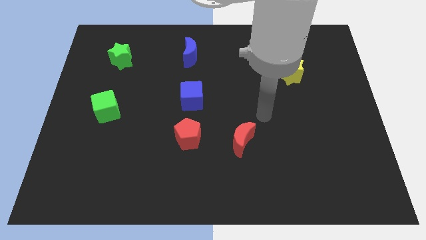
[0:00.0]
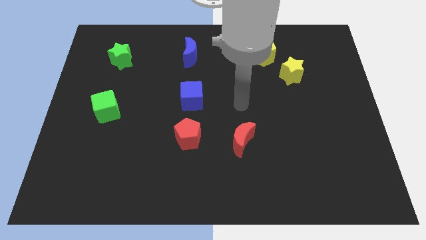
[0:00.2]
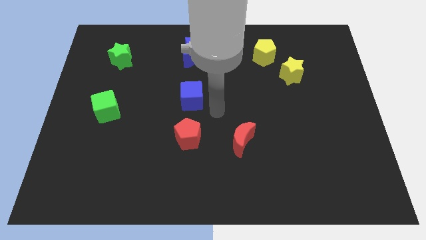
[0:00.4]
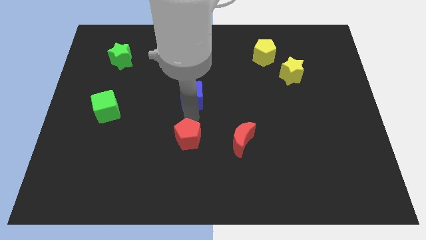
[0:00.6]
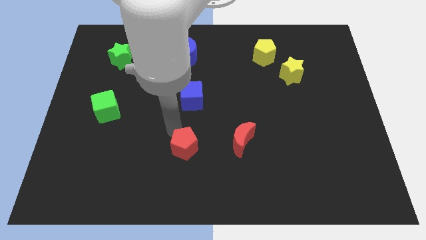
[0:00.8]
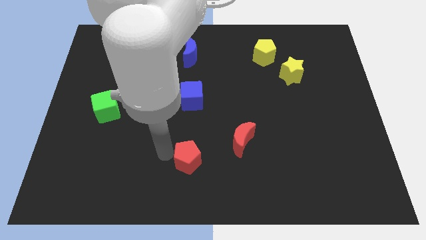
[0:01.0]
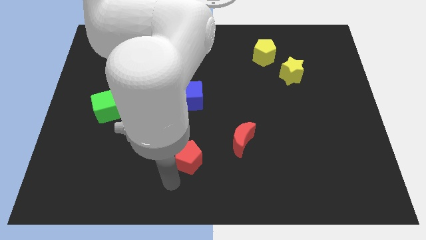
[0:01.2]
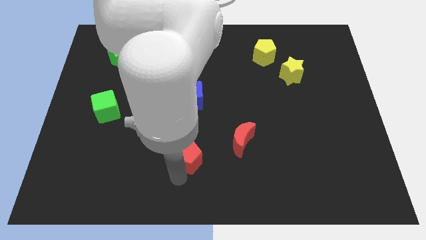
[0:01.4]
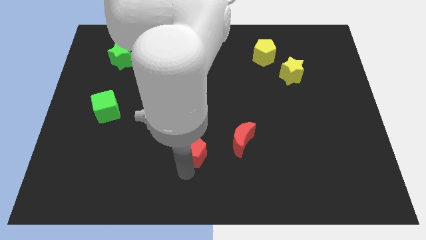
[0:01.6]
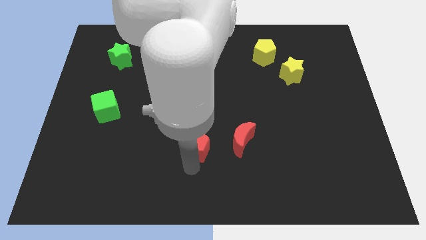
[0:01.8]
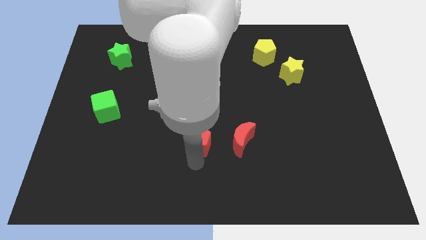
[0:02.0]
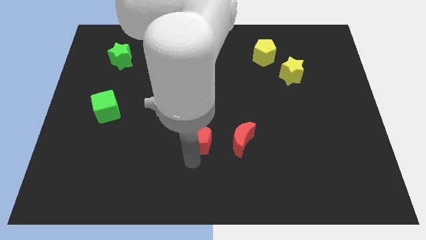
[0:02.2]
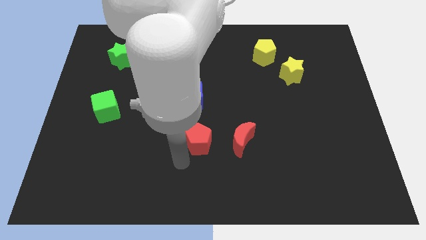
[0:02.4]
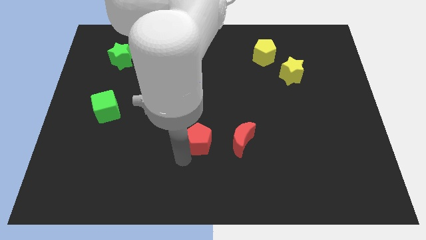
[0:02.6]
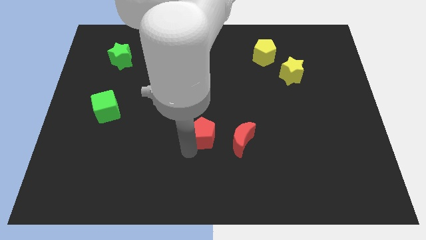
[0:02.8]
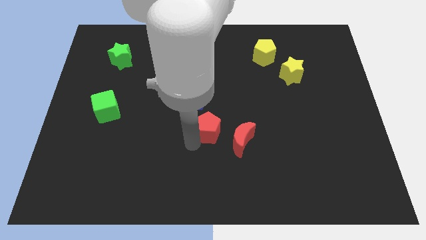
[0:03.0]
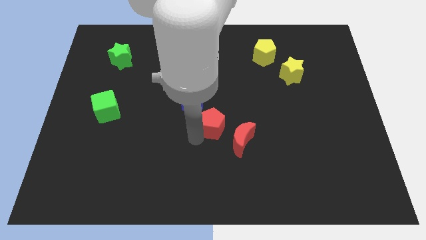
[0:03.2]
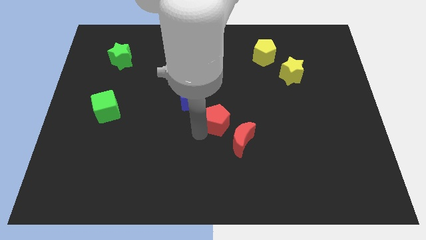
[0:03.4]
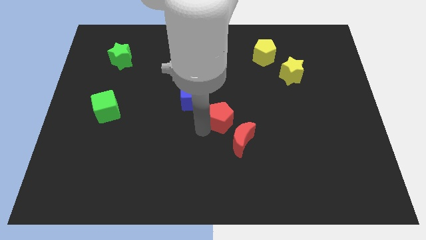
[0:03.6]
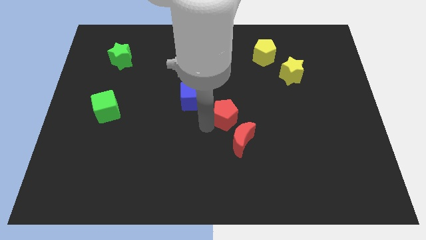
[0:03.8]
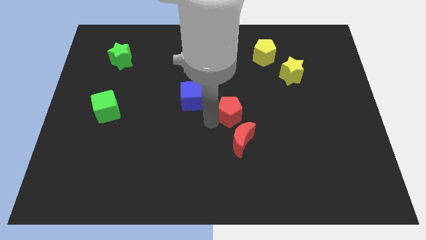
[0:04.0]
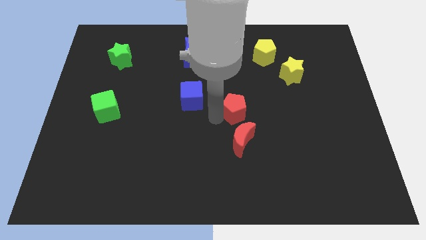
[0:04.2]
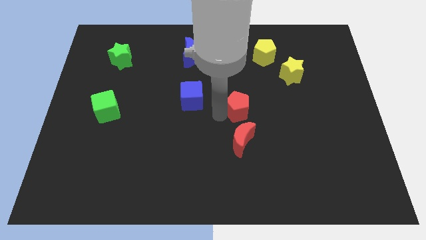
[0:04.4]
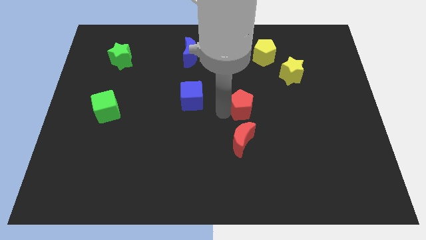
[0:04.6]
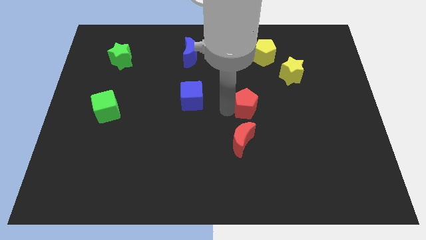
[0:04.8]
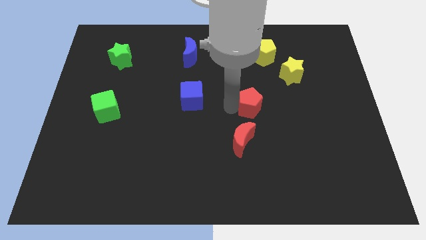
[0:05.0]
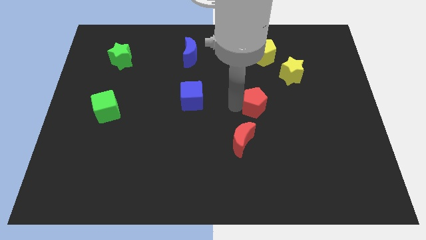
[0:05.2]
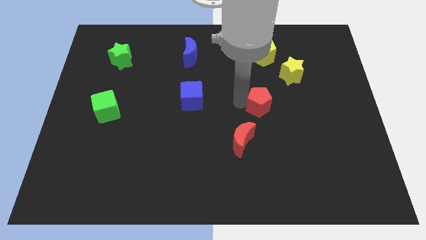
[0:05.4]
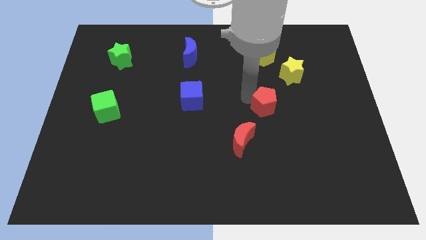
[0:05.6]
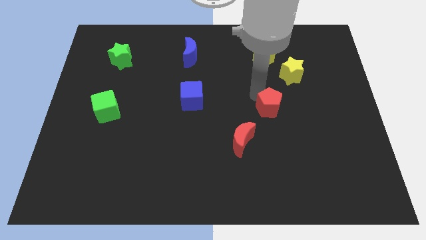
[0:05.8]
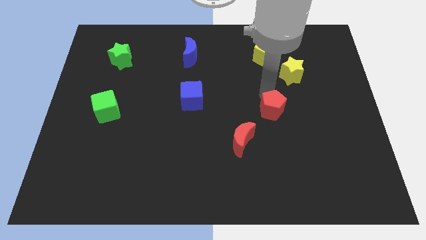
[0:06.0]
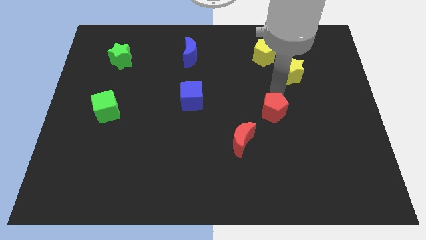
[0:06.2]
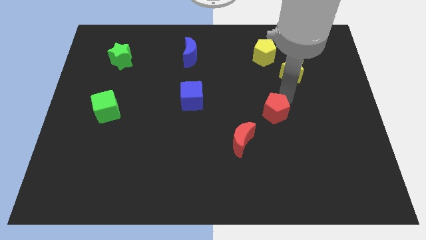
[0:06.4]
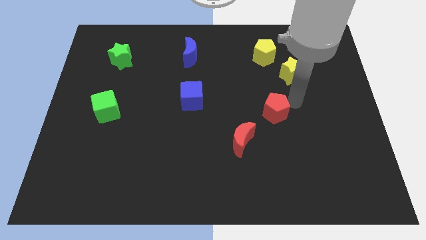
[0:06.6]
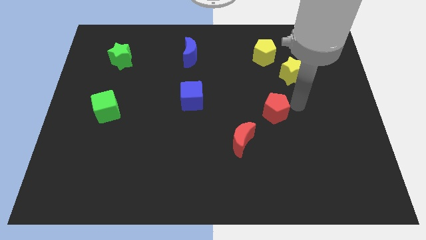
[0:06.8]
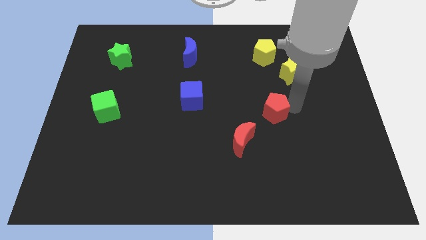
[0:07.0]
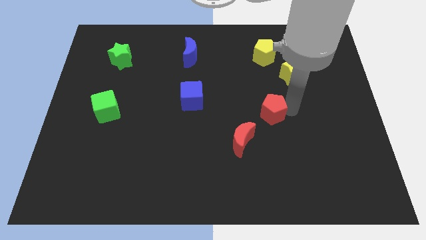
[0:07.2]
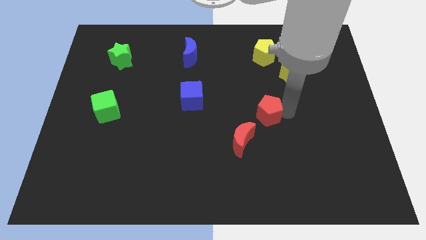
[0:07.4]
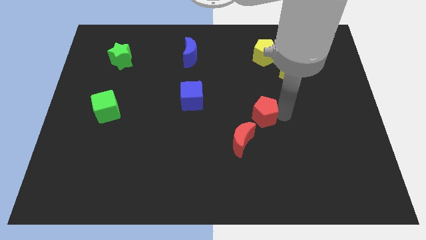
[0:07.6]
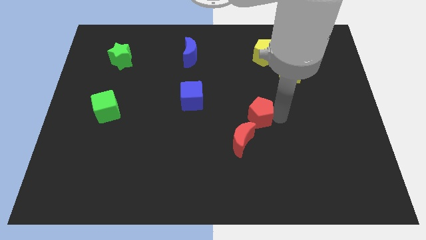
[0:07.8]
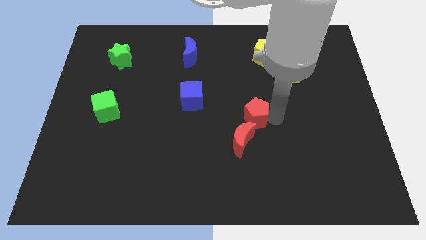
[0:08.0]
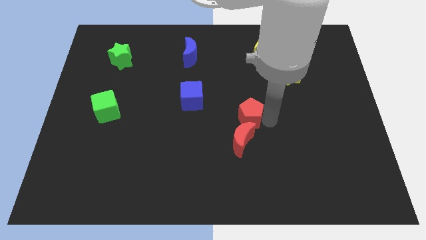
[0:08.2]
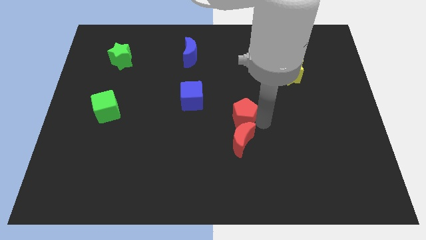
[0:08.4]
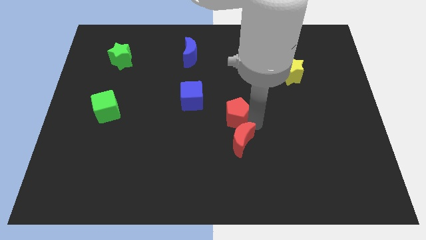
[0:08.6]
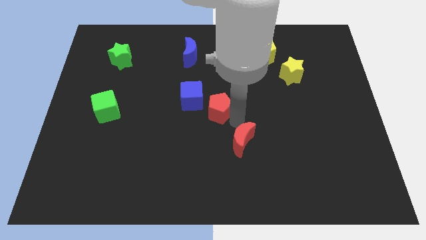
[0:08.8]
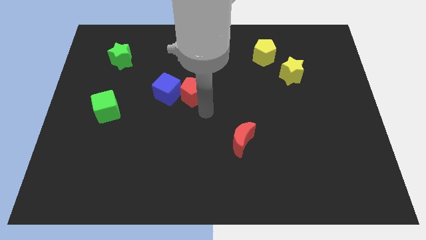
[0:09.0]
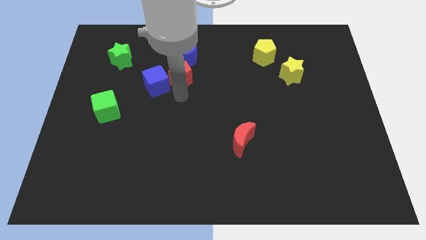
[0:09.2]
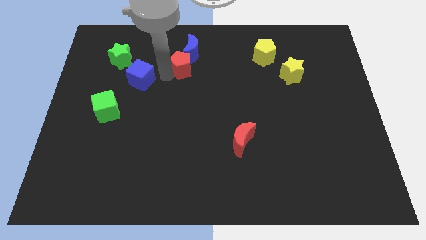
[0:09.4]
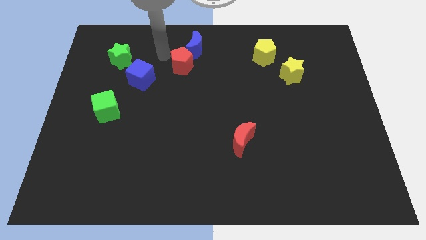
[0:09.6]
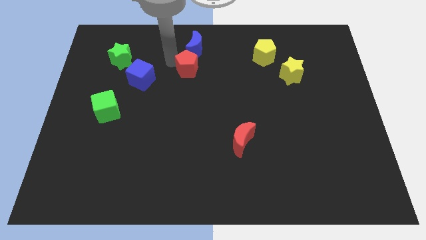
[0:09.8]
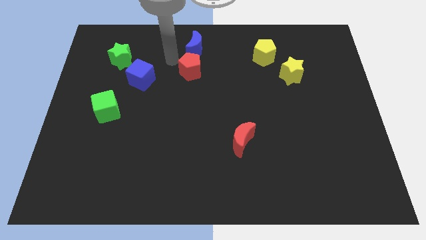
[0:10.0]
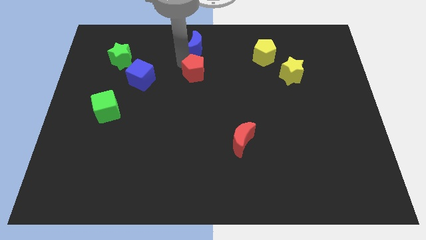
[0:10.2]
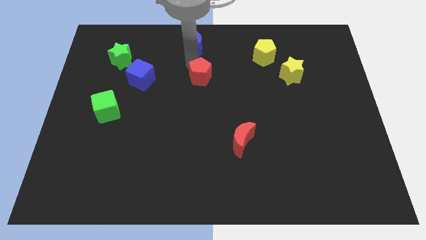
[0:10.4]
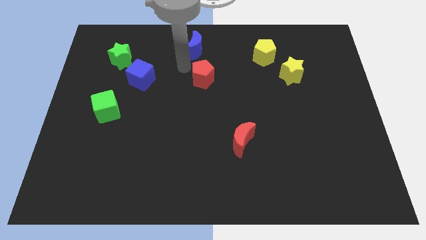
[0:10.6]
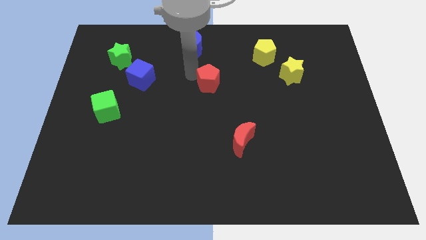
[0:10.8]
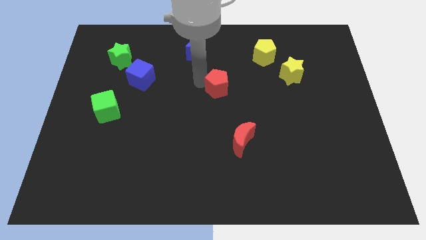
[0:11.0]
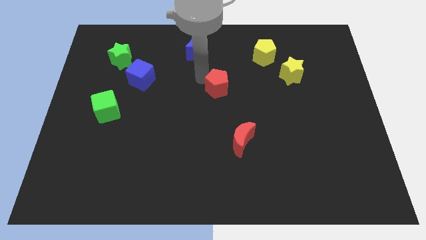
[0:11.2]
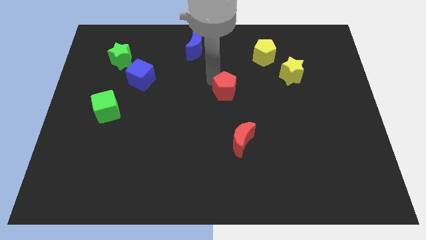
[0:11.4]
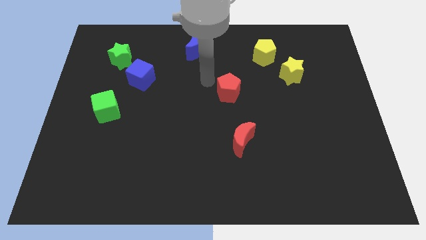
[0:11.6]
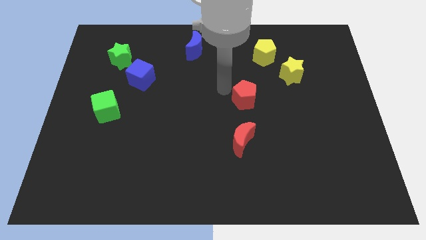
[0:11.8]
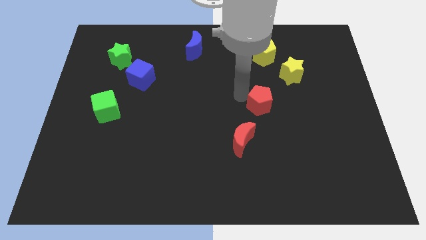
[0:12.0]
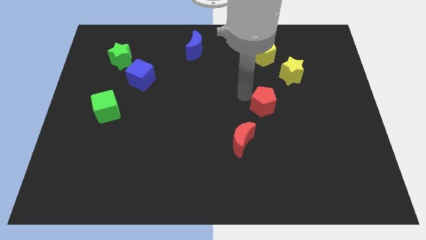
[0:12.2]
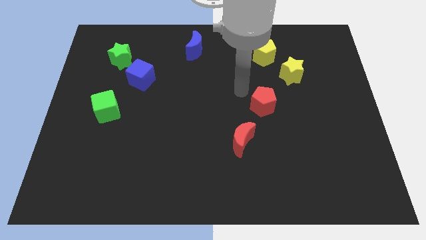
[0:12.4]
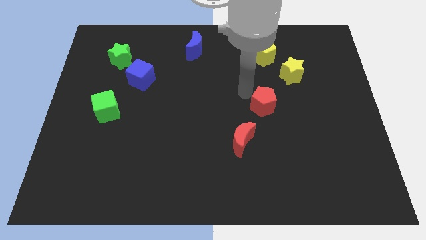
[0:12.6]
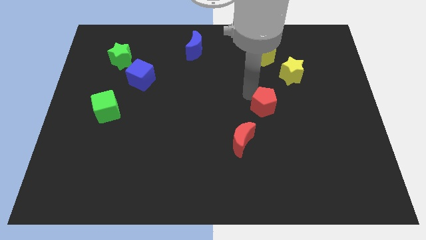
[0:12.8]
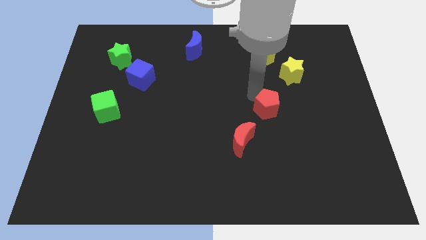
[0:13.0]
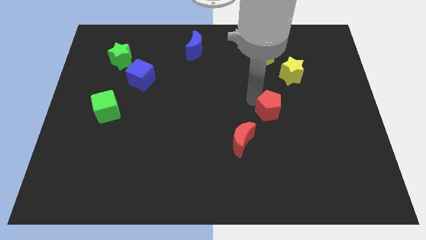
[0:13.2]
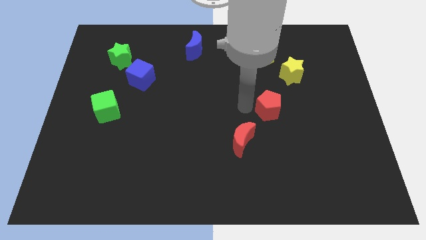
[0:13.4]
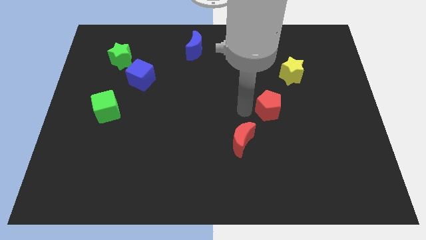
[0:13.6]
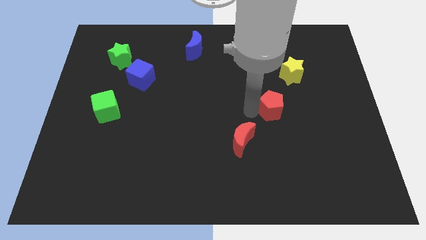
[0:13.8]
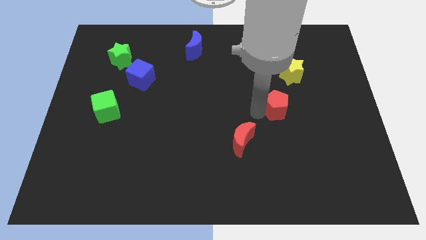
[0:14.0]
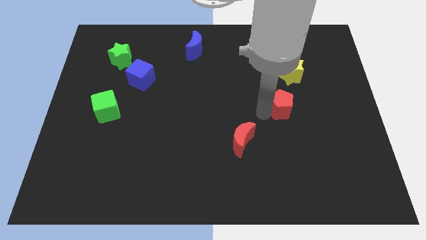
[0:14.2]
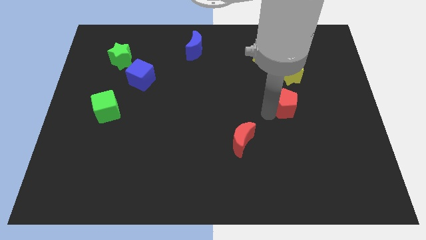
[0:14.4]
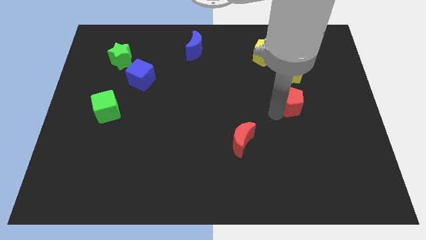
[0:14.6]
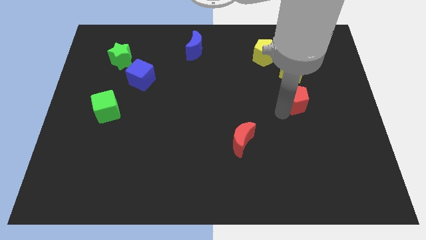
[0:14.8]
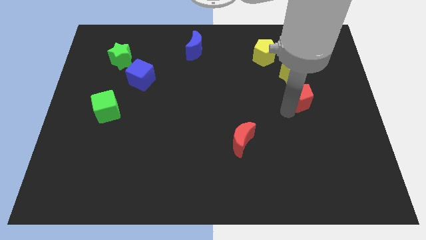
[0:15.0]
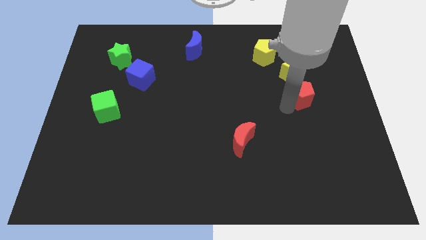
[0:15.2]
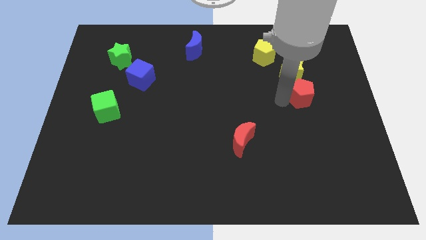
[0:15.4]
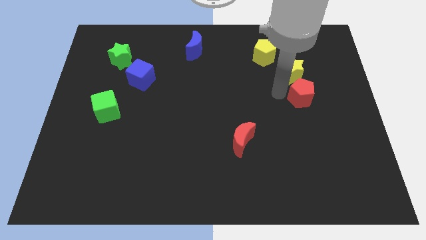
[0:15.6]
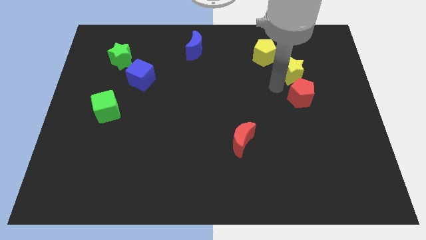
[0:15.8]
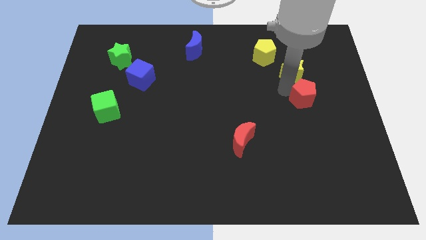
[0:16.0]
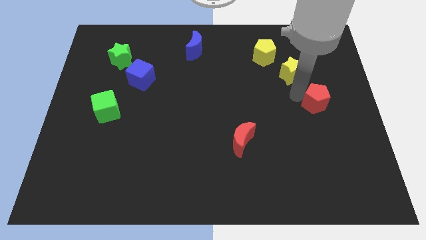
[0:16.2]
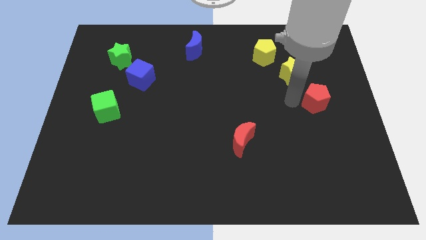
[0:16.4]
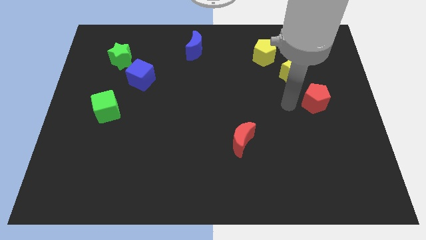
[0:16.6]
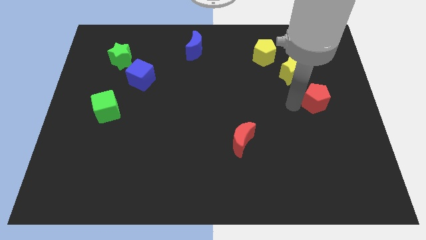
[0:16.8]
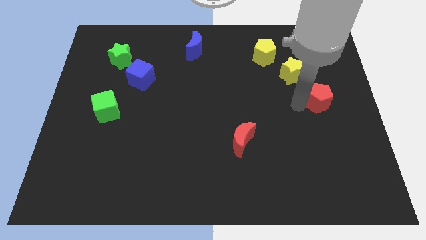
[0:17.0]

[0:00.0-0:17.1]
push the red pentagon to the center right
